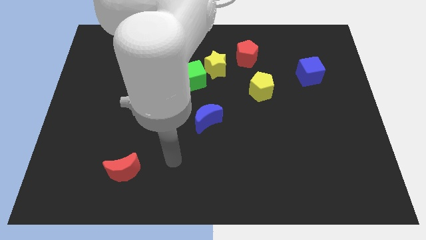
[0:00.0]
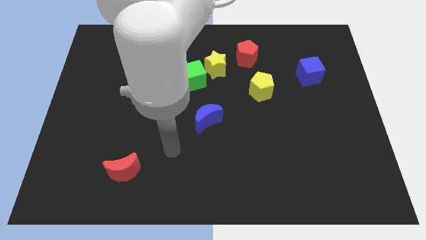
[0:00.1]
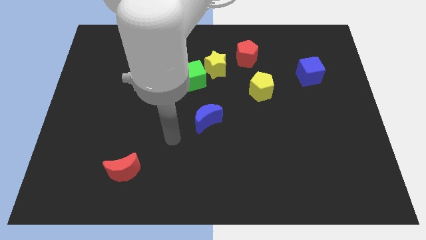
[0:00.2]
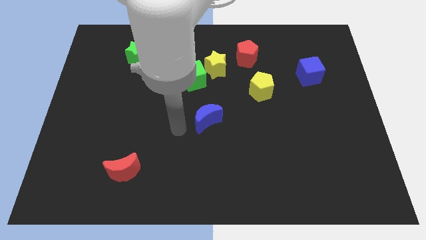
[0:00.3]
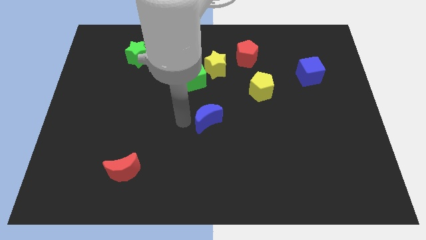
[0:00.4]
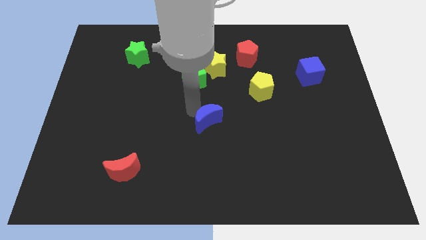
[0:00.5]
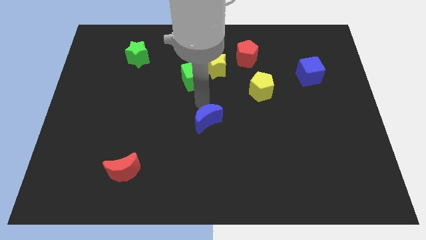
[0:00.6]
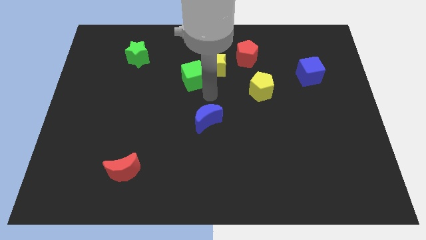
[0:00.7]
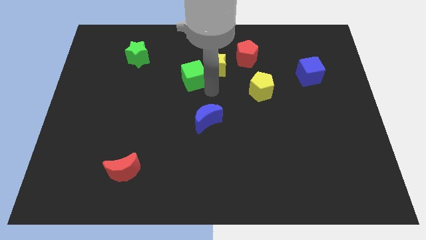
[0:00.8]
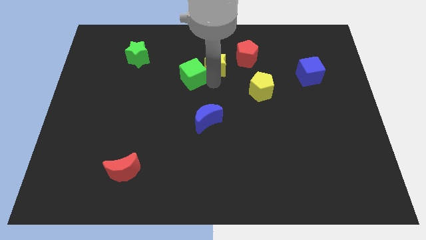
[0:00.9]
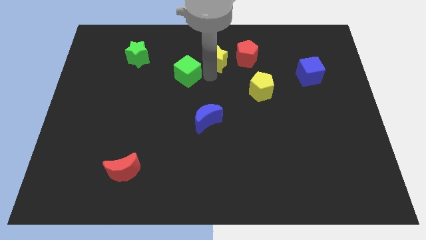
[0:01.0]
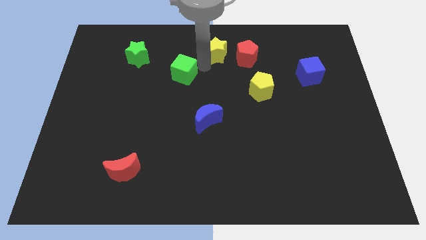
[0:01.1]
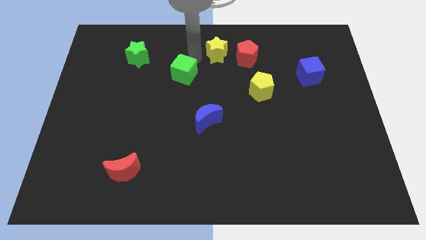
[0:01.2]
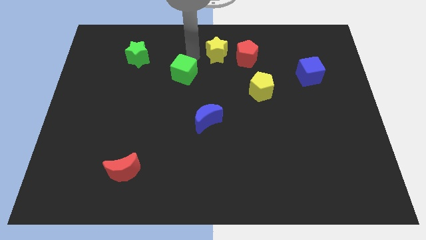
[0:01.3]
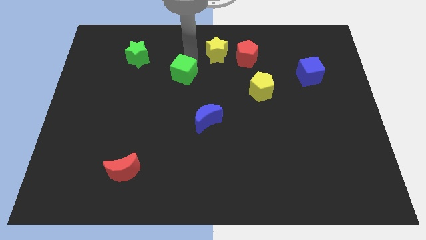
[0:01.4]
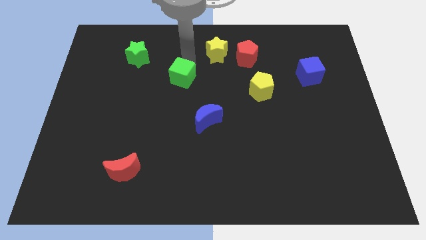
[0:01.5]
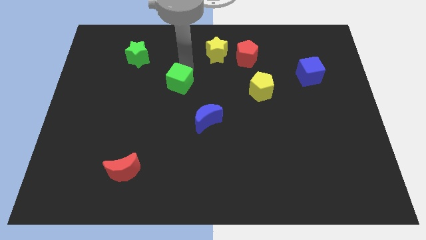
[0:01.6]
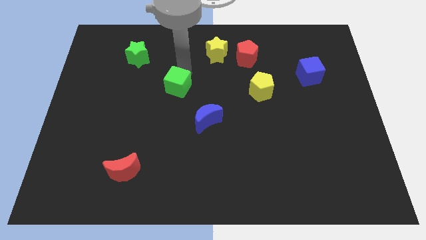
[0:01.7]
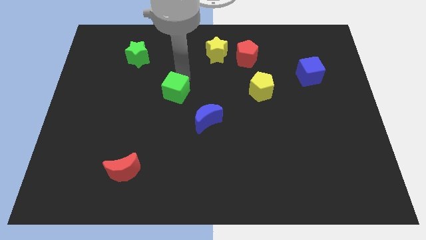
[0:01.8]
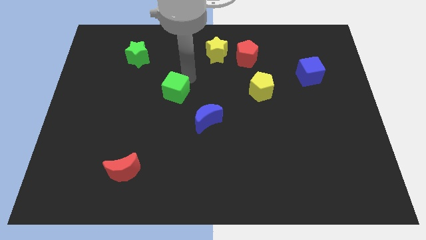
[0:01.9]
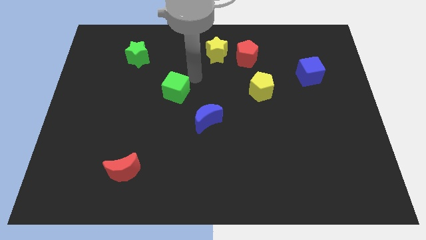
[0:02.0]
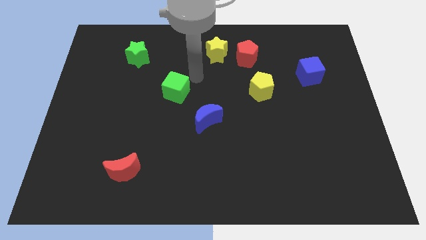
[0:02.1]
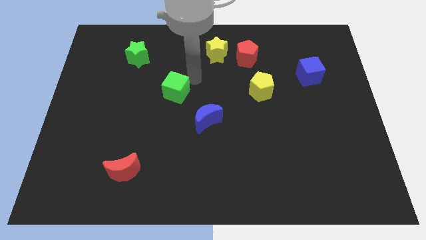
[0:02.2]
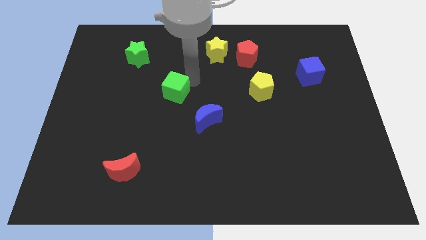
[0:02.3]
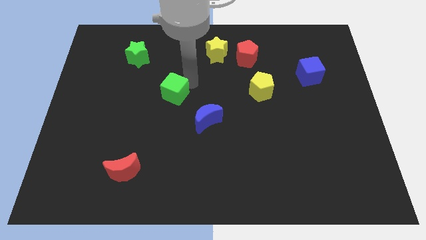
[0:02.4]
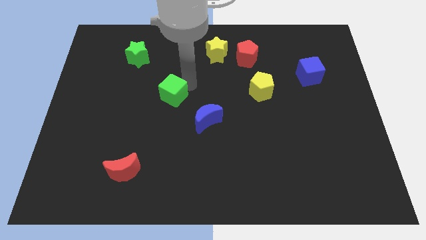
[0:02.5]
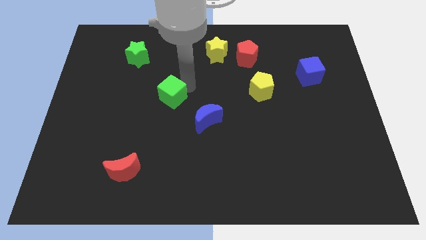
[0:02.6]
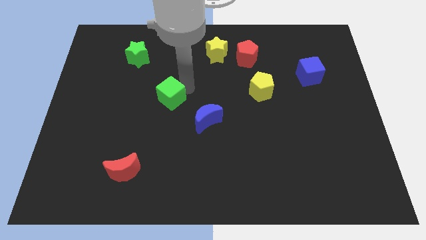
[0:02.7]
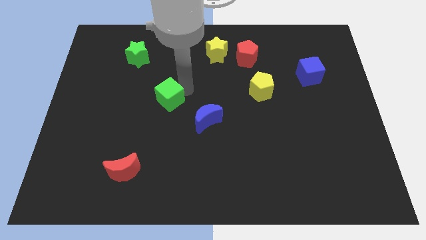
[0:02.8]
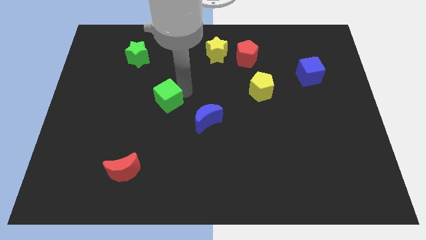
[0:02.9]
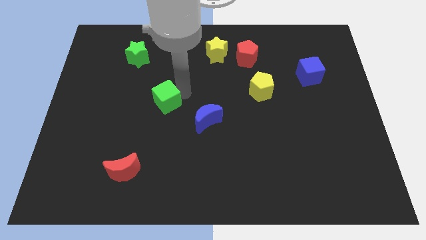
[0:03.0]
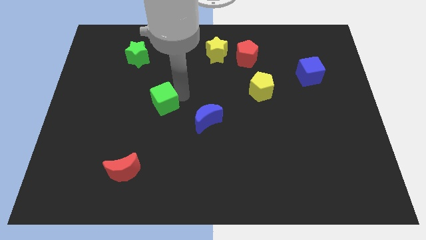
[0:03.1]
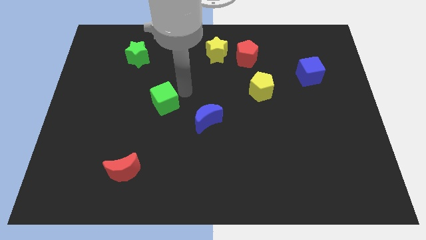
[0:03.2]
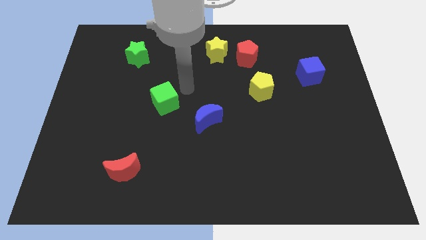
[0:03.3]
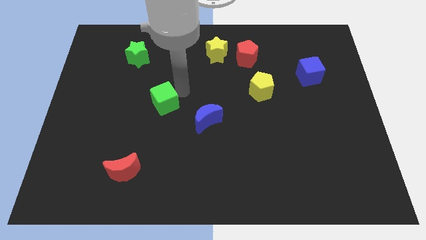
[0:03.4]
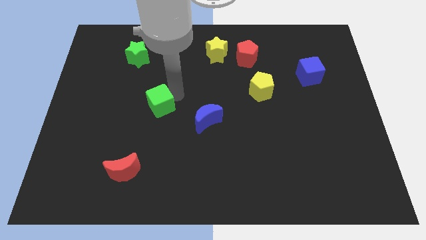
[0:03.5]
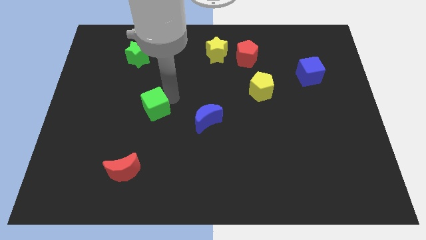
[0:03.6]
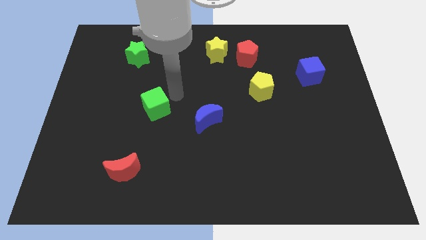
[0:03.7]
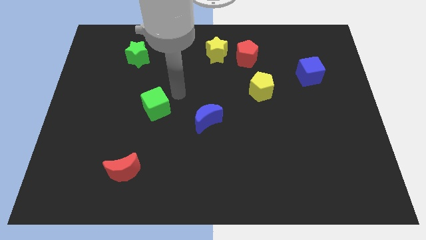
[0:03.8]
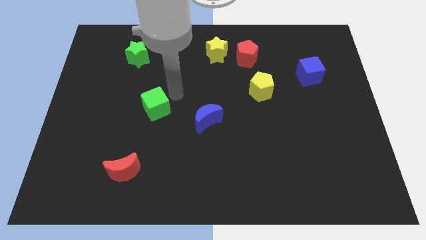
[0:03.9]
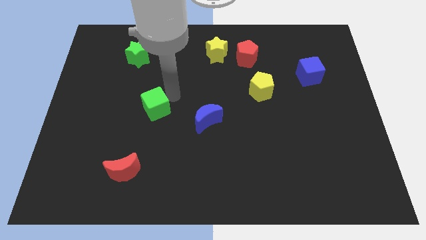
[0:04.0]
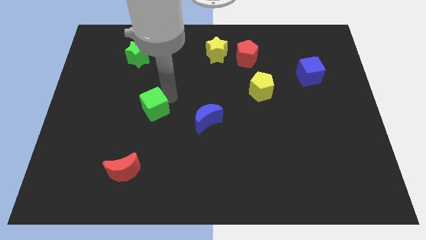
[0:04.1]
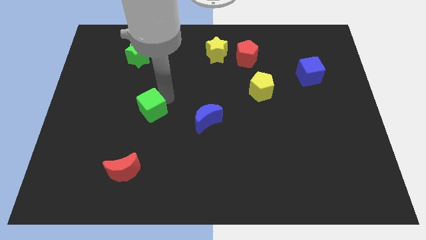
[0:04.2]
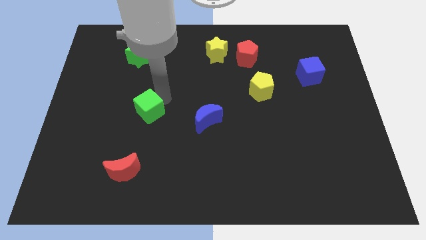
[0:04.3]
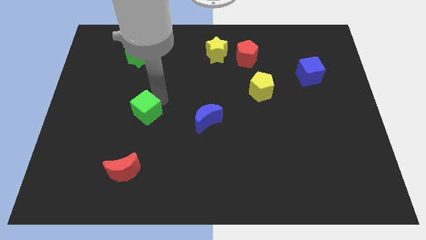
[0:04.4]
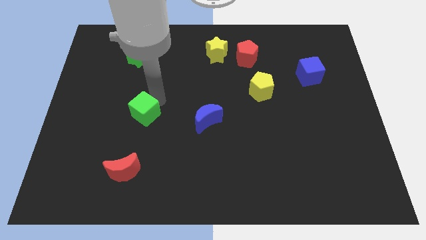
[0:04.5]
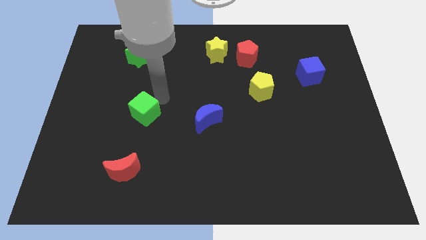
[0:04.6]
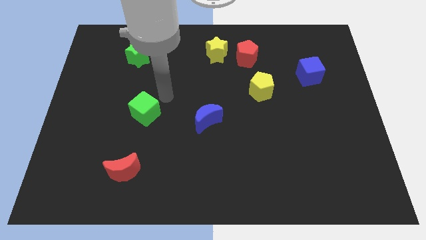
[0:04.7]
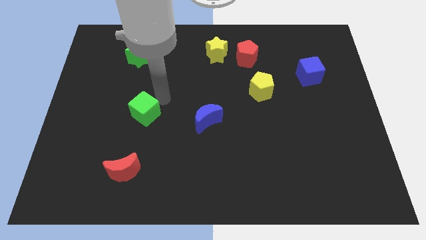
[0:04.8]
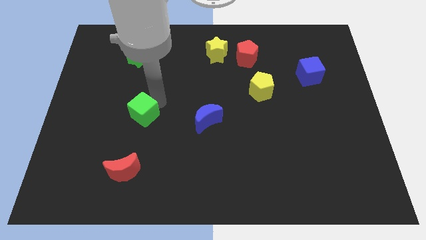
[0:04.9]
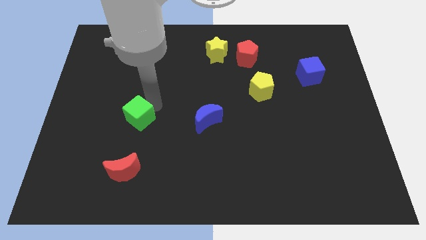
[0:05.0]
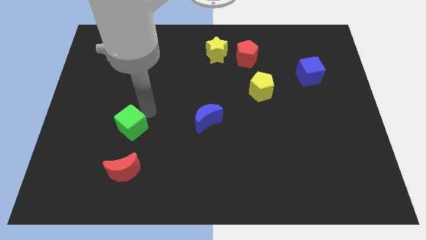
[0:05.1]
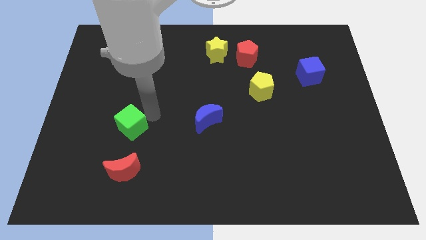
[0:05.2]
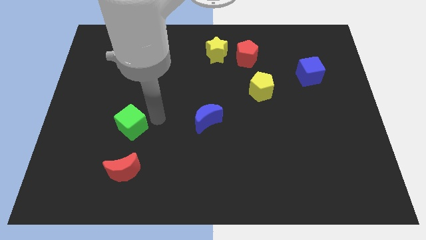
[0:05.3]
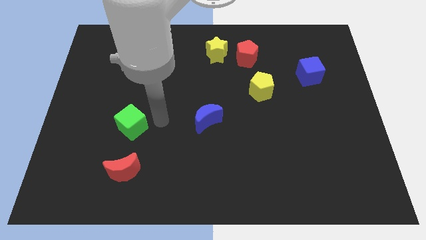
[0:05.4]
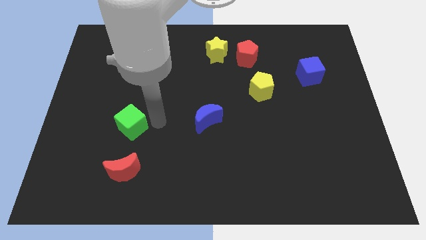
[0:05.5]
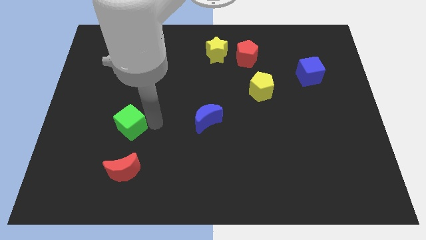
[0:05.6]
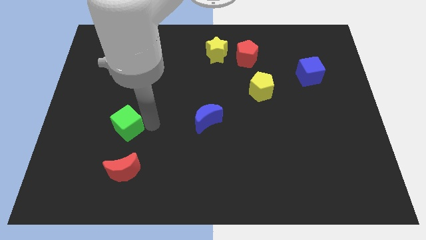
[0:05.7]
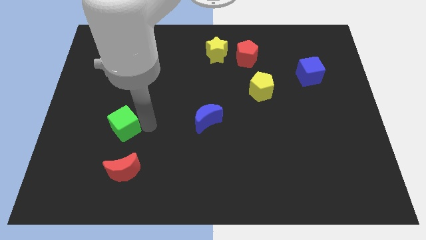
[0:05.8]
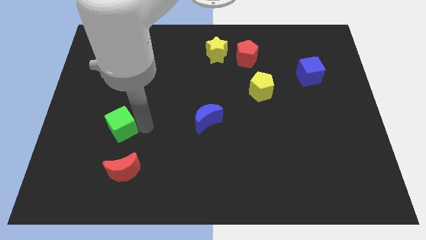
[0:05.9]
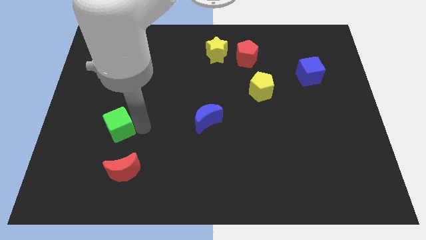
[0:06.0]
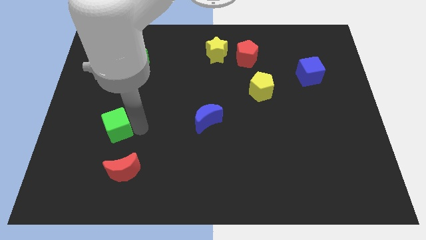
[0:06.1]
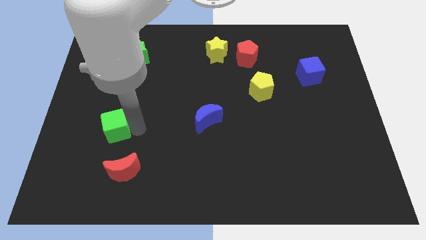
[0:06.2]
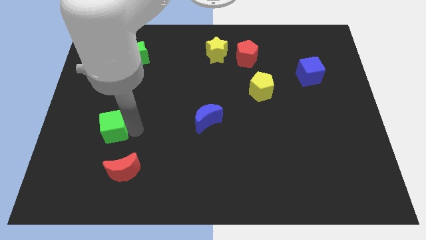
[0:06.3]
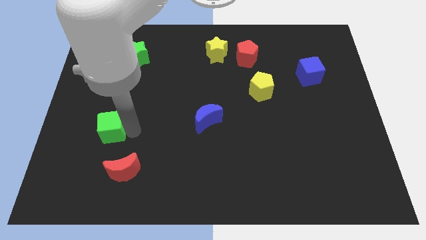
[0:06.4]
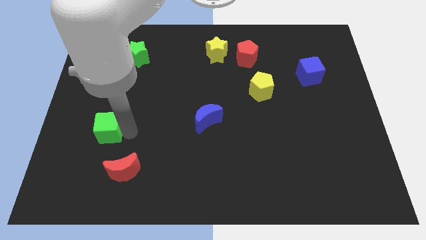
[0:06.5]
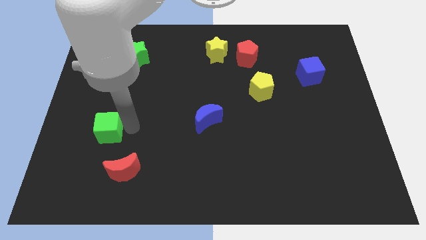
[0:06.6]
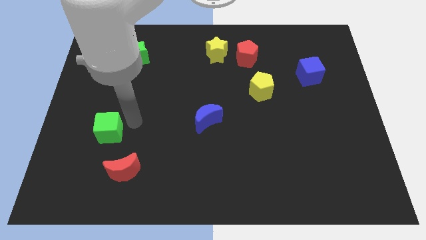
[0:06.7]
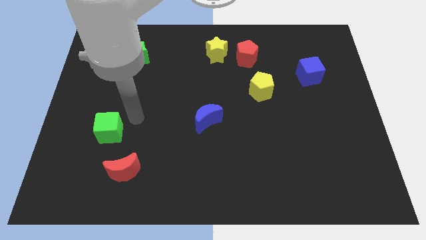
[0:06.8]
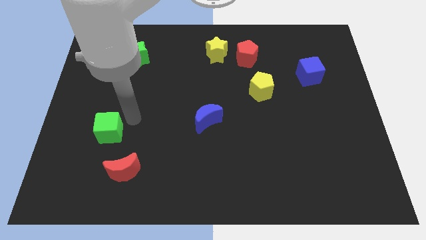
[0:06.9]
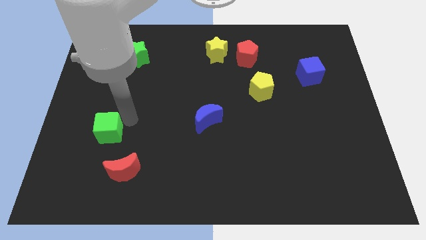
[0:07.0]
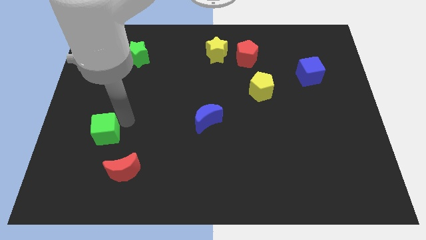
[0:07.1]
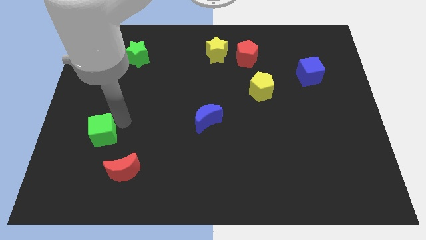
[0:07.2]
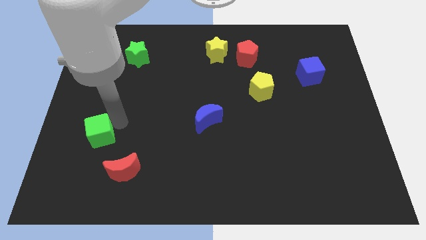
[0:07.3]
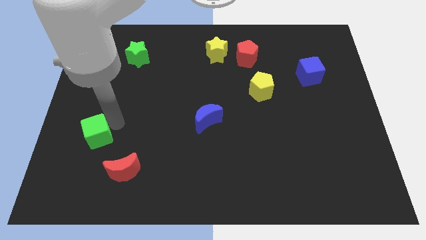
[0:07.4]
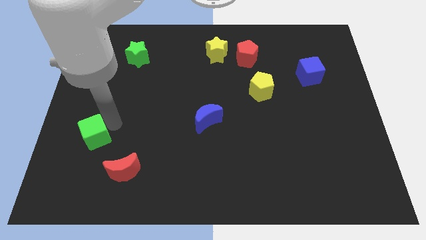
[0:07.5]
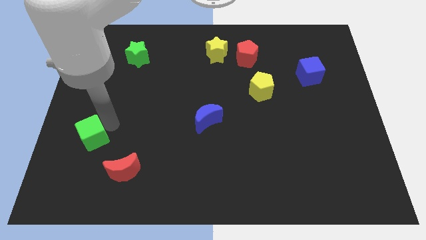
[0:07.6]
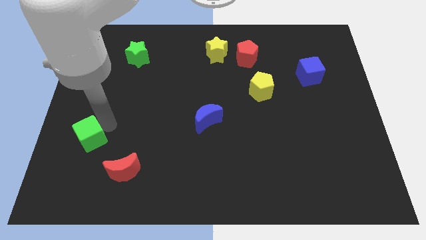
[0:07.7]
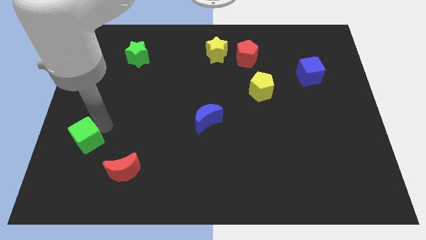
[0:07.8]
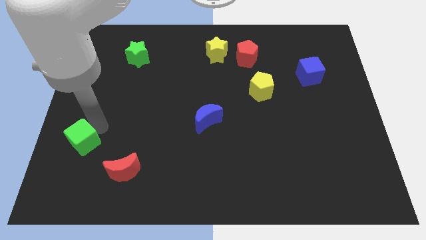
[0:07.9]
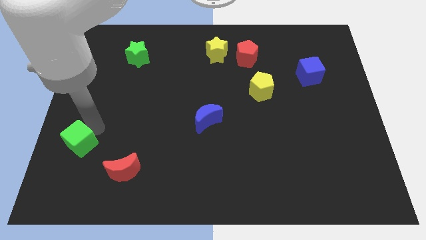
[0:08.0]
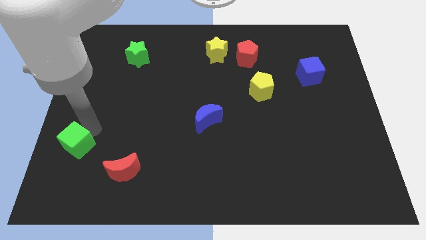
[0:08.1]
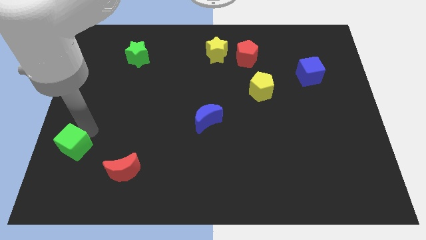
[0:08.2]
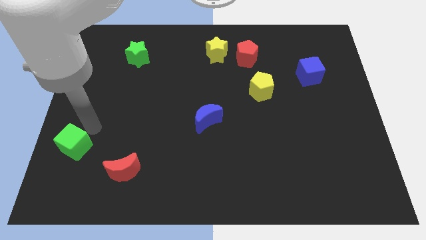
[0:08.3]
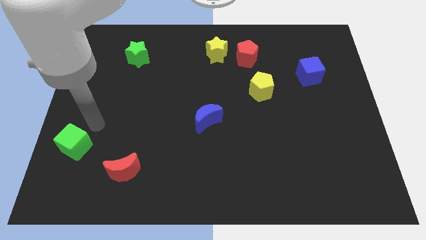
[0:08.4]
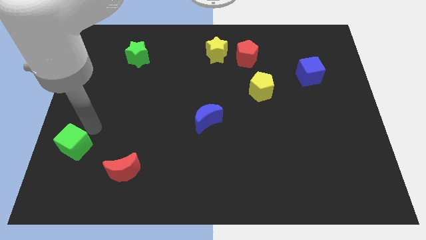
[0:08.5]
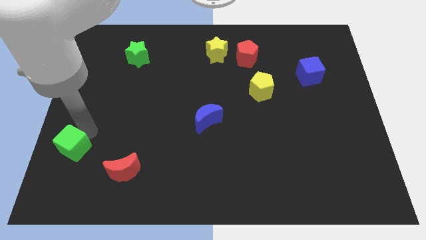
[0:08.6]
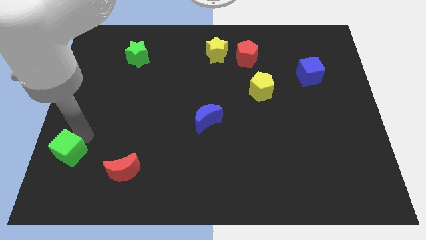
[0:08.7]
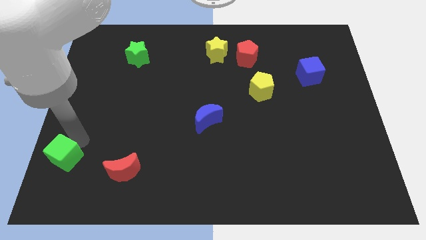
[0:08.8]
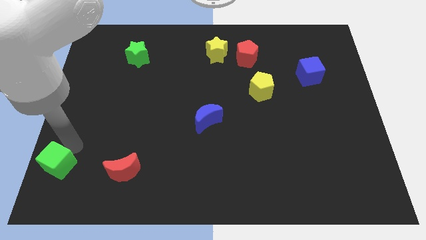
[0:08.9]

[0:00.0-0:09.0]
push the green cube to the bottom left
